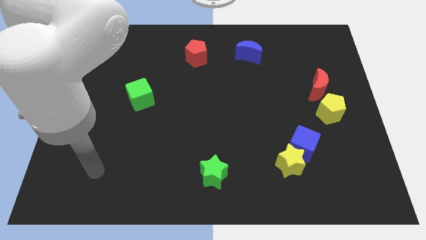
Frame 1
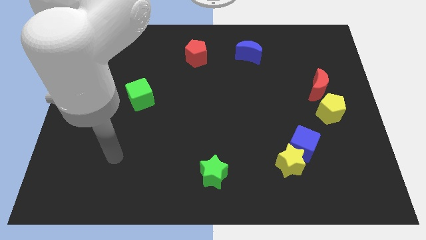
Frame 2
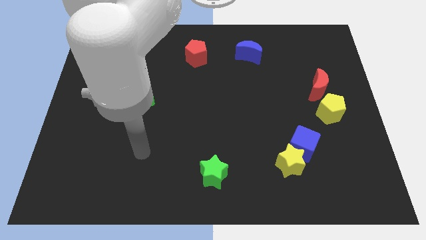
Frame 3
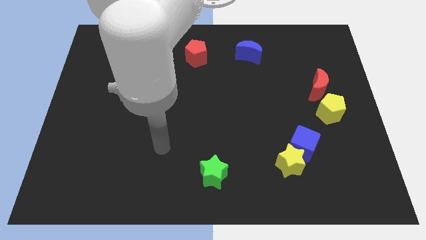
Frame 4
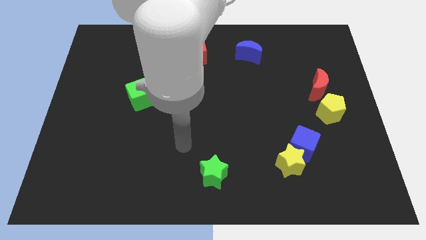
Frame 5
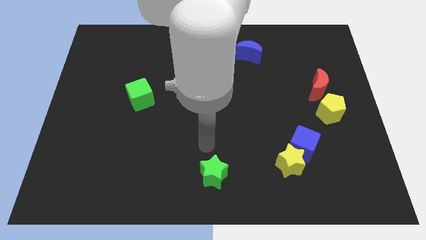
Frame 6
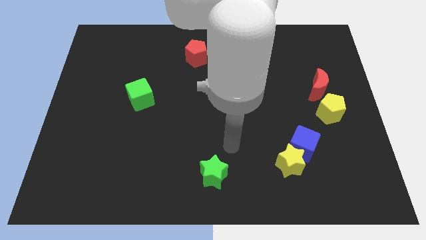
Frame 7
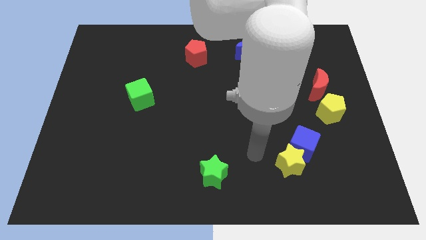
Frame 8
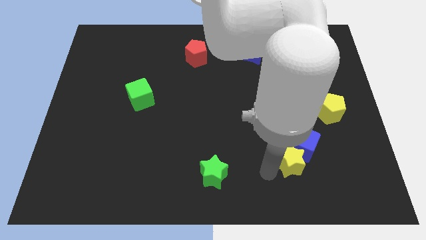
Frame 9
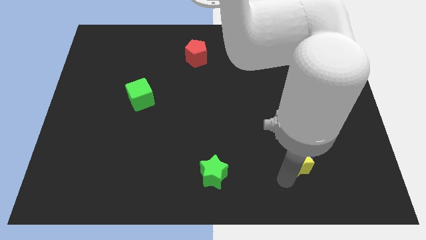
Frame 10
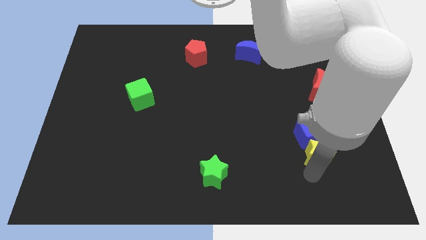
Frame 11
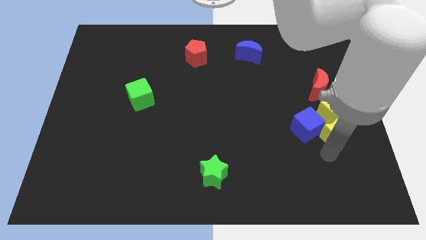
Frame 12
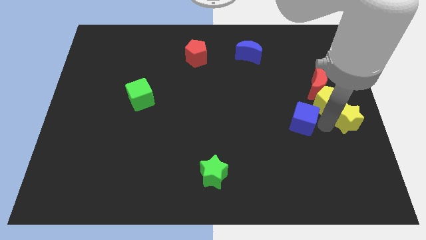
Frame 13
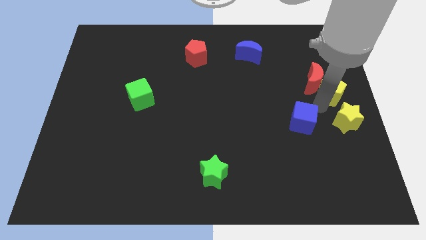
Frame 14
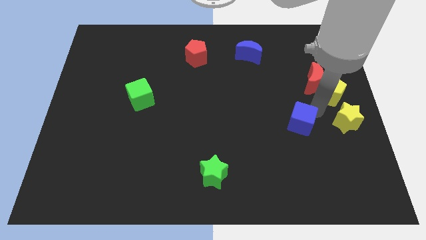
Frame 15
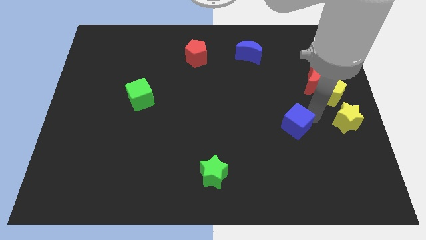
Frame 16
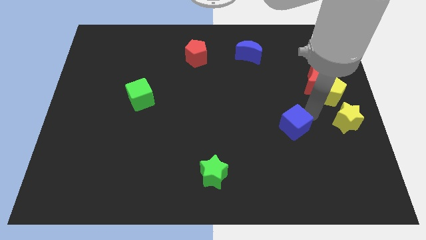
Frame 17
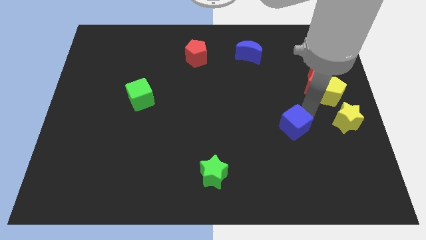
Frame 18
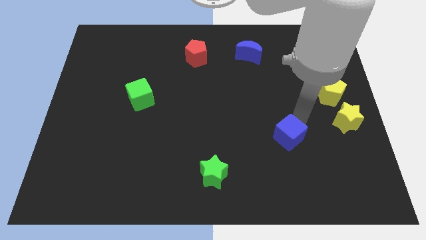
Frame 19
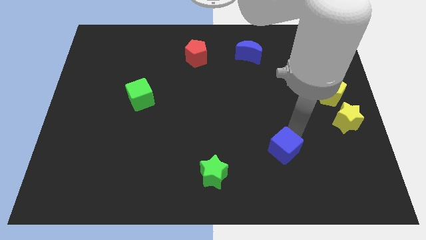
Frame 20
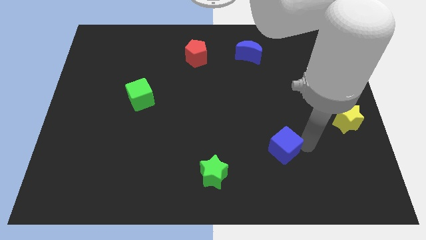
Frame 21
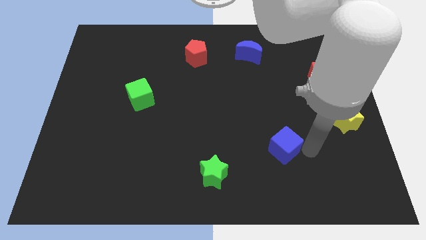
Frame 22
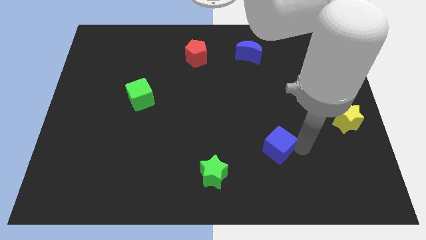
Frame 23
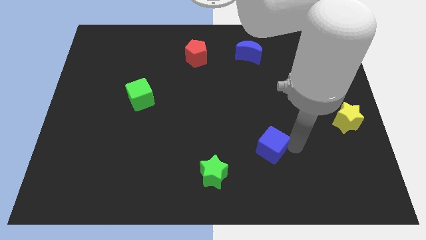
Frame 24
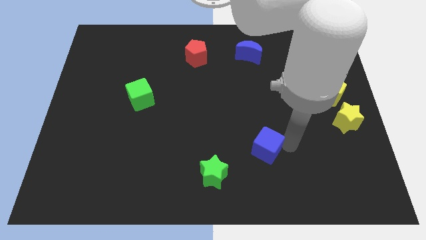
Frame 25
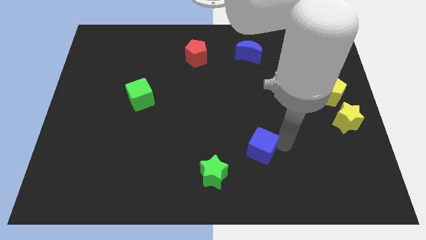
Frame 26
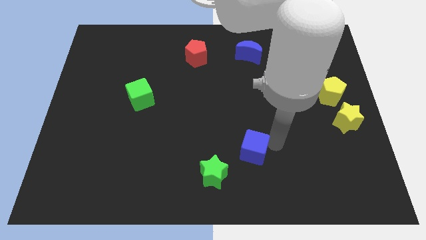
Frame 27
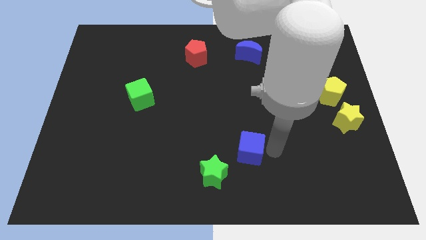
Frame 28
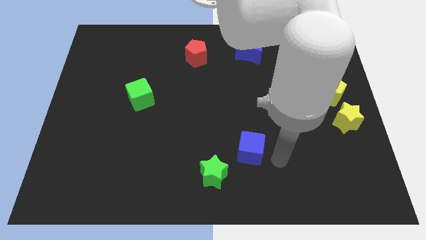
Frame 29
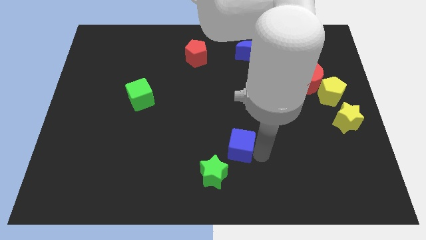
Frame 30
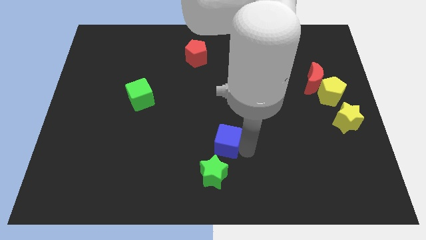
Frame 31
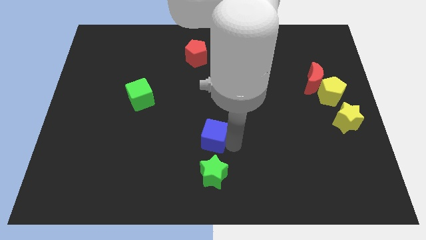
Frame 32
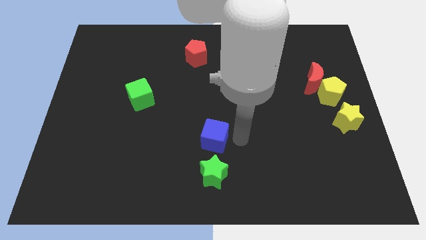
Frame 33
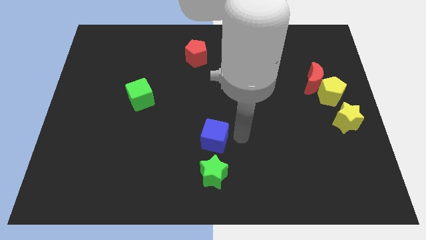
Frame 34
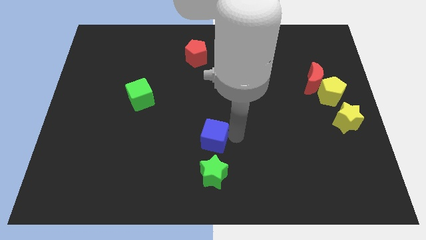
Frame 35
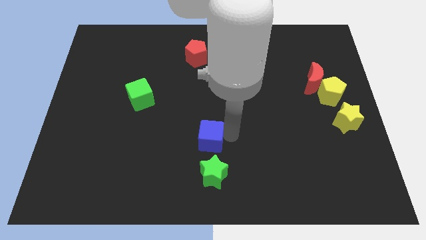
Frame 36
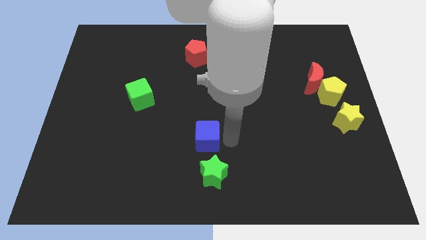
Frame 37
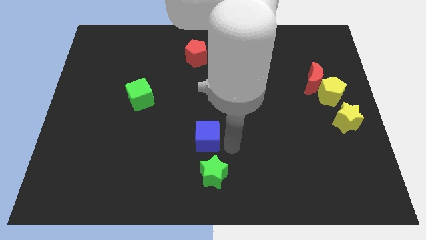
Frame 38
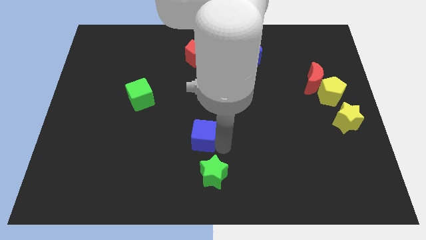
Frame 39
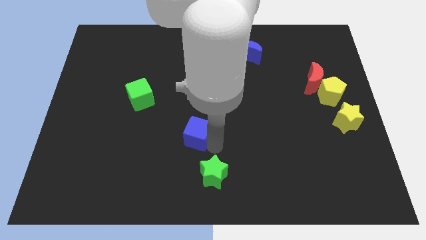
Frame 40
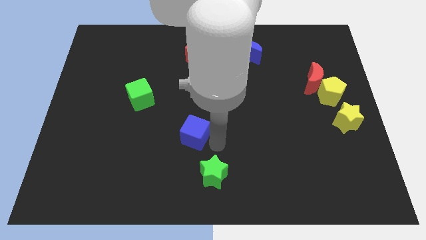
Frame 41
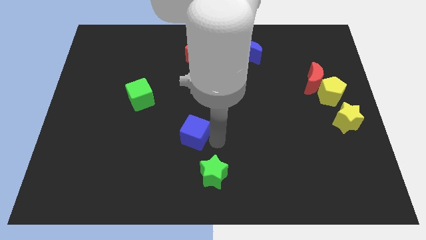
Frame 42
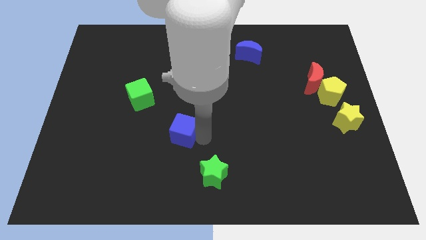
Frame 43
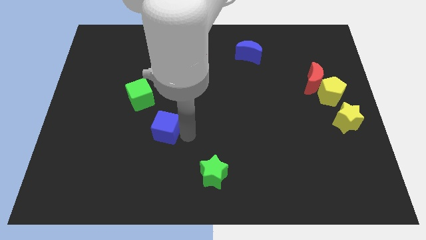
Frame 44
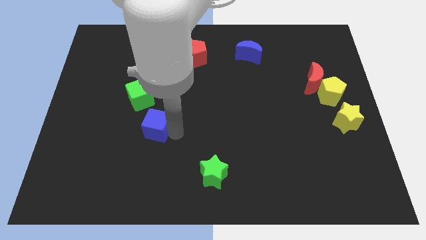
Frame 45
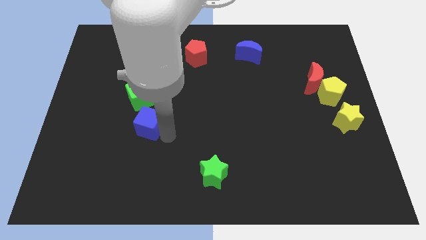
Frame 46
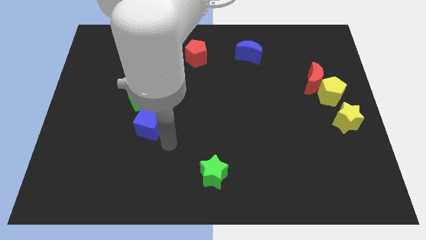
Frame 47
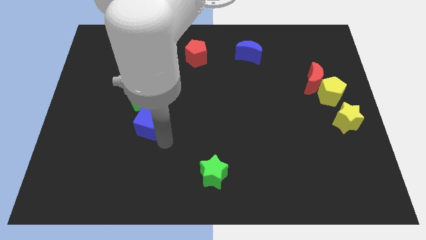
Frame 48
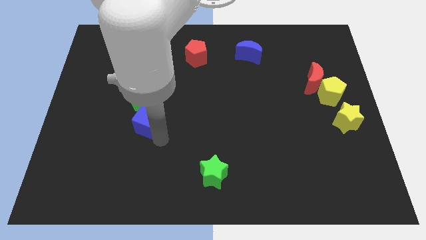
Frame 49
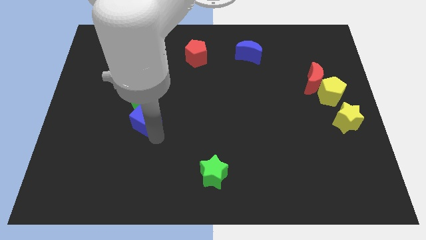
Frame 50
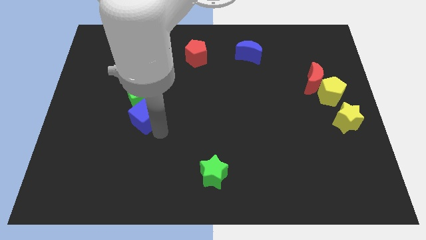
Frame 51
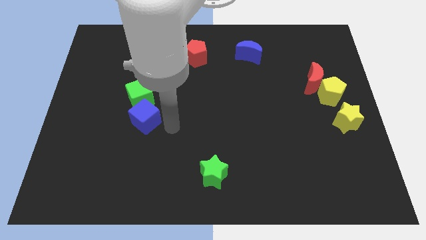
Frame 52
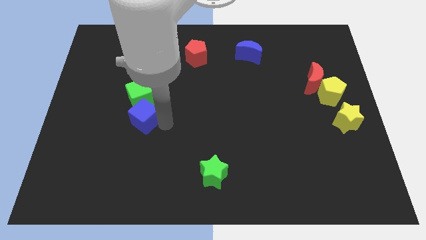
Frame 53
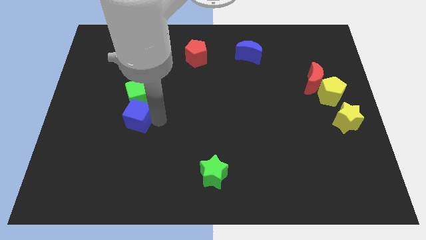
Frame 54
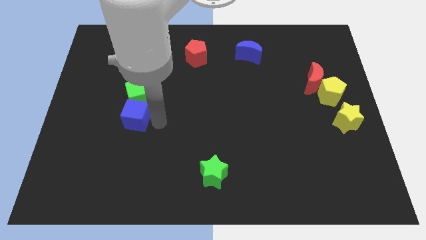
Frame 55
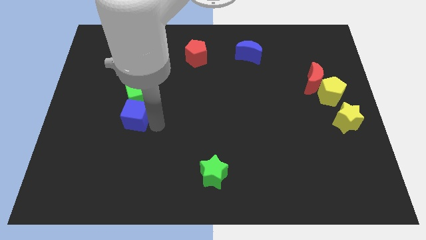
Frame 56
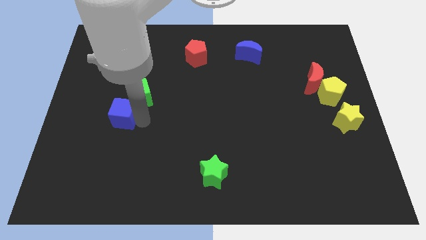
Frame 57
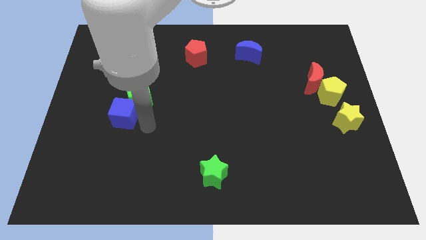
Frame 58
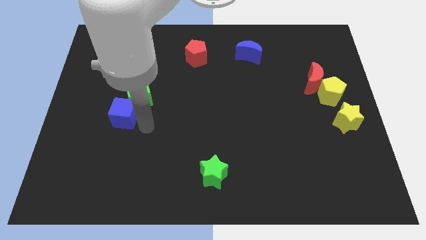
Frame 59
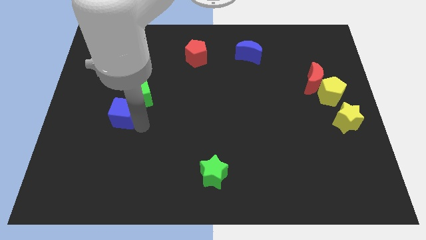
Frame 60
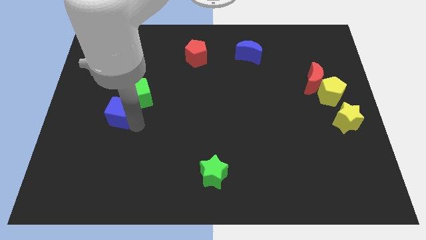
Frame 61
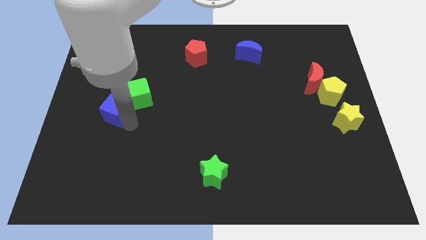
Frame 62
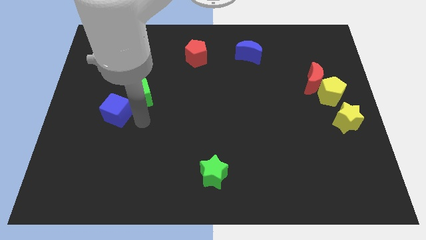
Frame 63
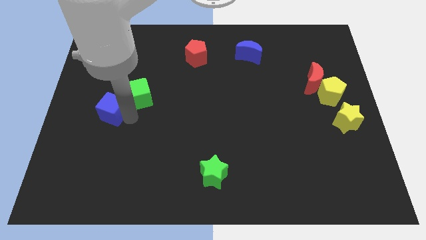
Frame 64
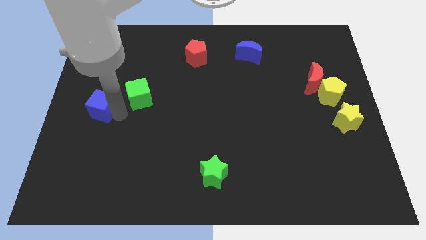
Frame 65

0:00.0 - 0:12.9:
put the blue cube to the left side of the board
